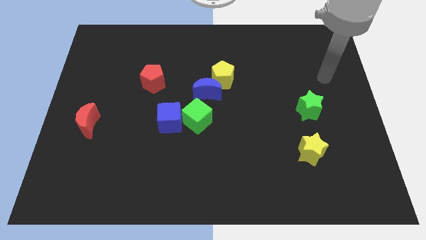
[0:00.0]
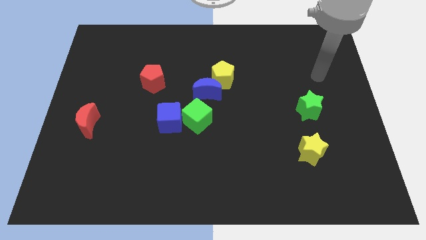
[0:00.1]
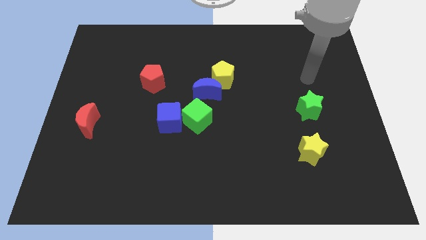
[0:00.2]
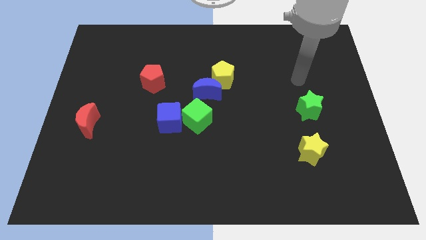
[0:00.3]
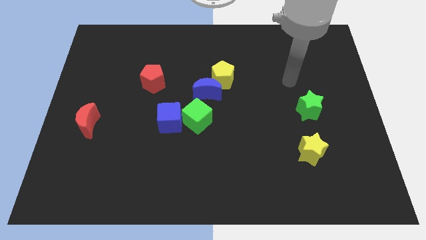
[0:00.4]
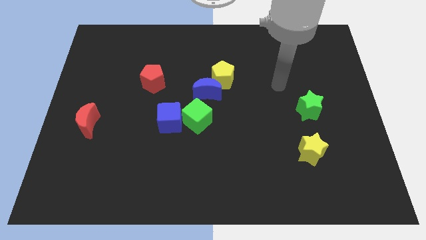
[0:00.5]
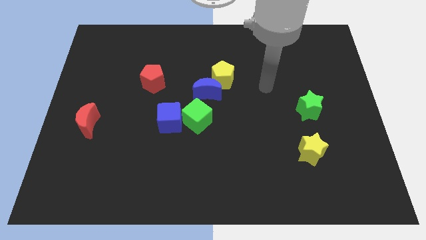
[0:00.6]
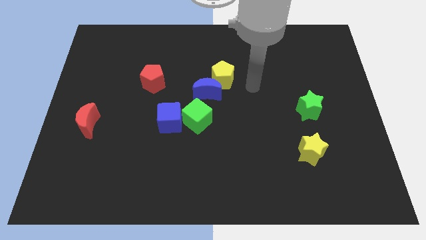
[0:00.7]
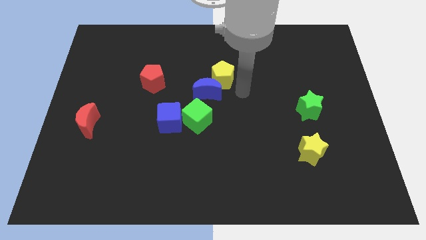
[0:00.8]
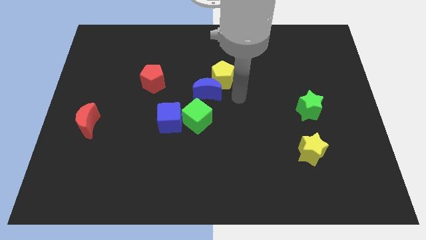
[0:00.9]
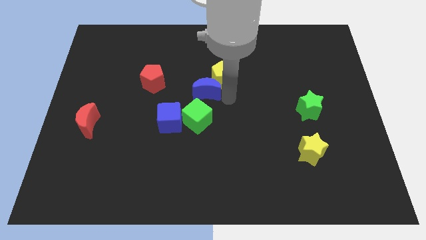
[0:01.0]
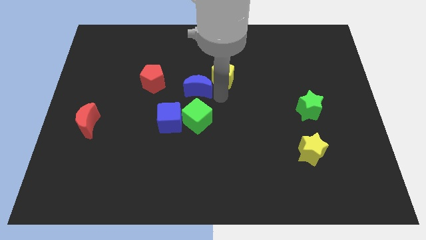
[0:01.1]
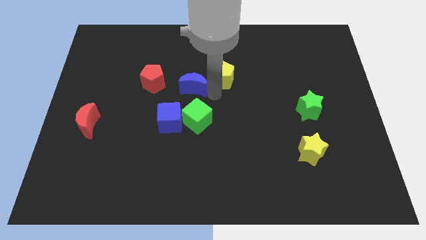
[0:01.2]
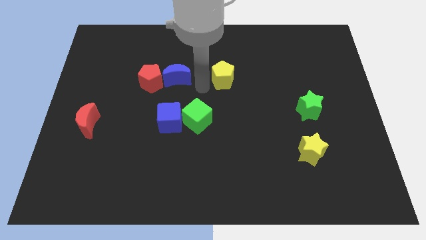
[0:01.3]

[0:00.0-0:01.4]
move the yellow pentagon away from the blue moon

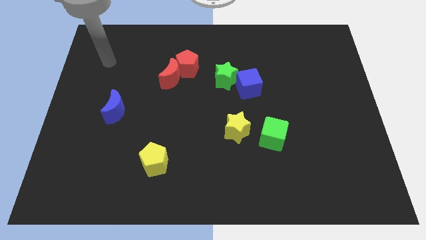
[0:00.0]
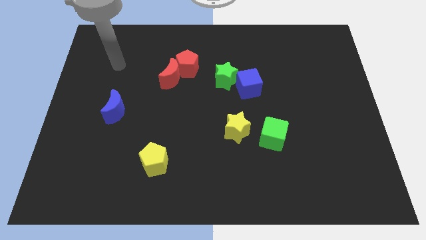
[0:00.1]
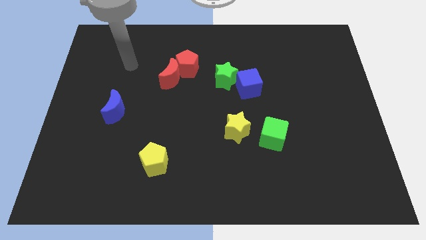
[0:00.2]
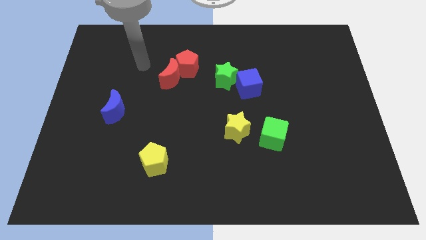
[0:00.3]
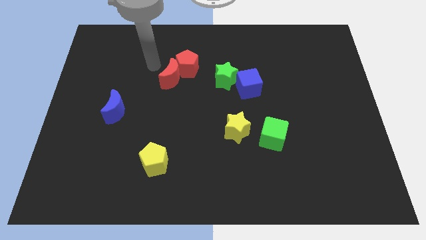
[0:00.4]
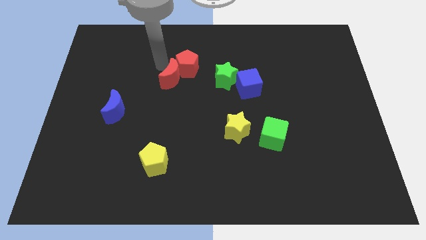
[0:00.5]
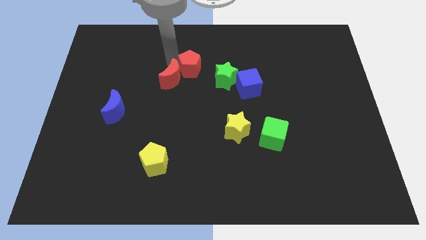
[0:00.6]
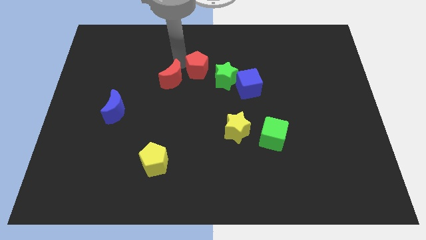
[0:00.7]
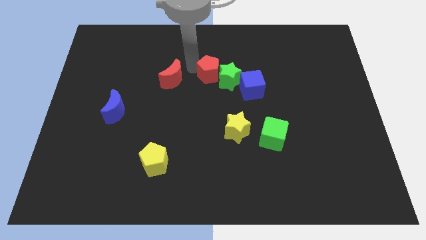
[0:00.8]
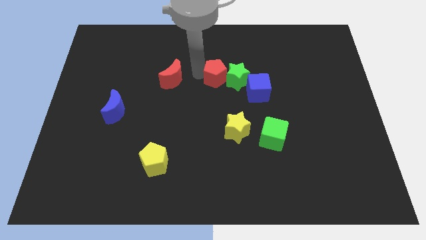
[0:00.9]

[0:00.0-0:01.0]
move the red moon away from the red pentagon

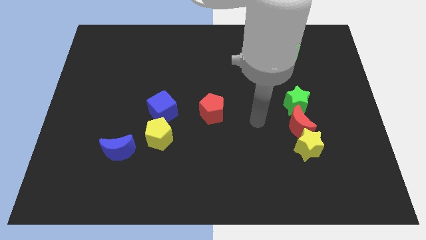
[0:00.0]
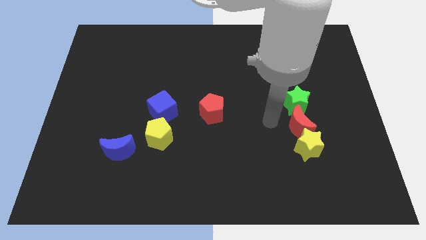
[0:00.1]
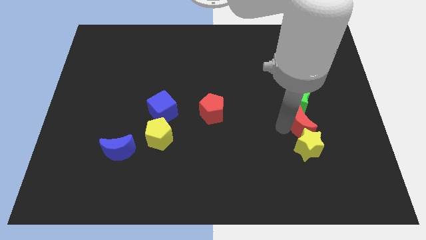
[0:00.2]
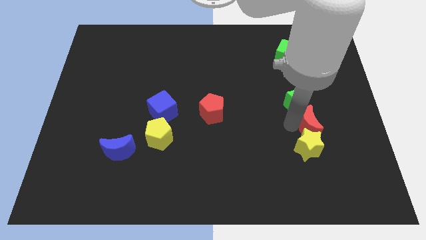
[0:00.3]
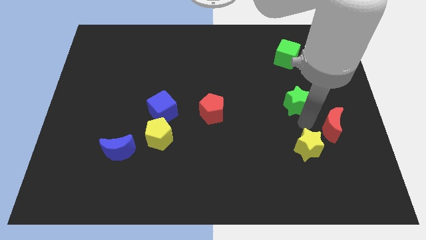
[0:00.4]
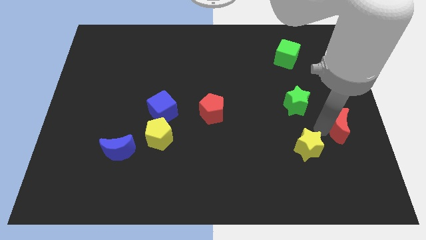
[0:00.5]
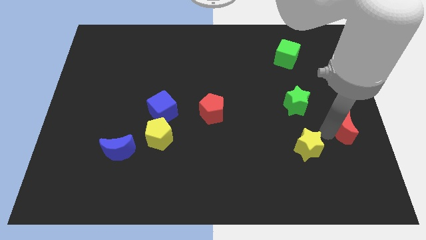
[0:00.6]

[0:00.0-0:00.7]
move the yellow star away from the red moon

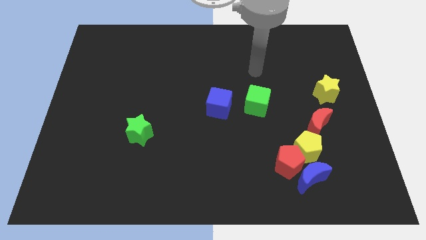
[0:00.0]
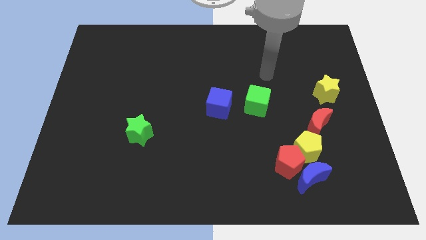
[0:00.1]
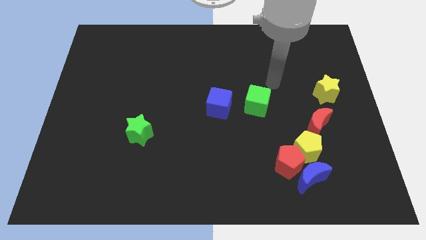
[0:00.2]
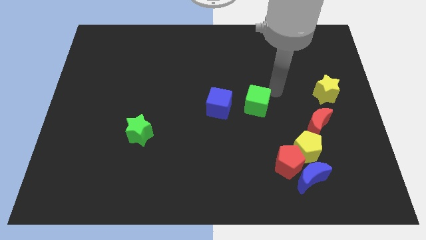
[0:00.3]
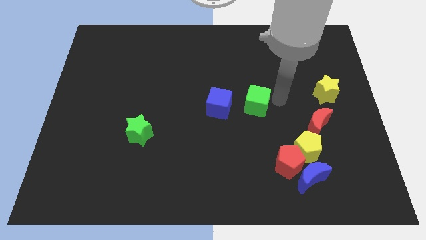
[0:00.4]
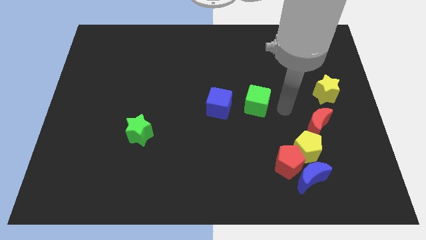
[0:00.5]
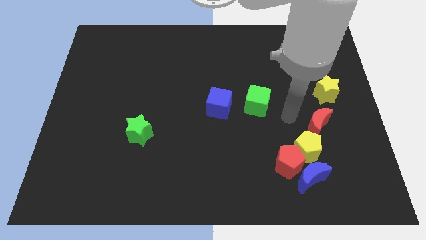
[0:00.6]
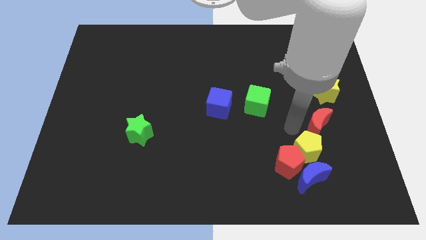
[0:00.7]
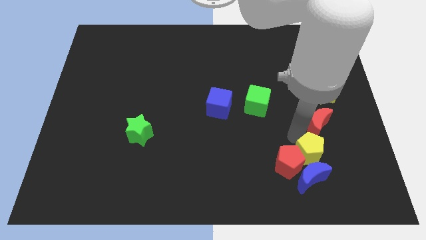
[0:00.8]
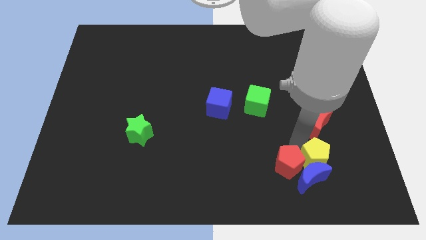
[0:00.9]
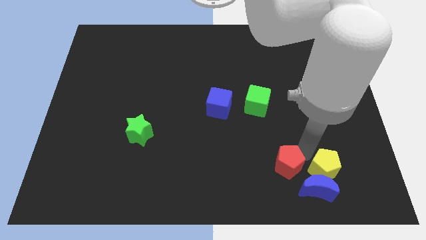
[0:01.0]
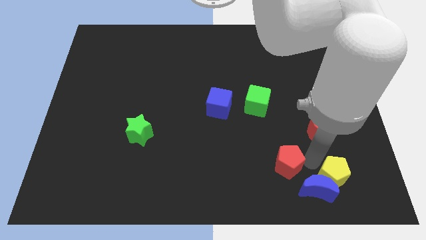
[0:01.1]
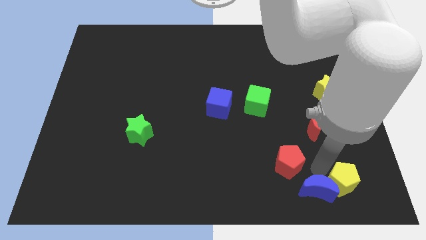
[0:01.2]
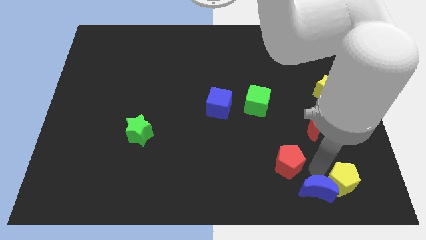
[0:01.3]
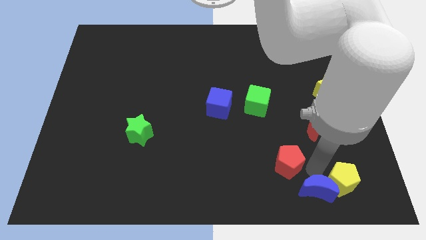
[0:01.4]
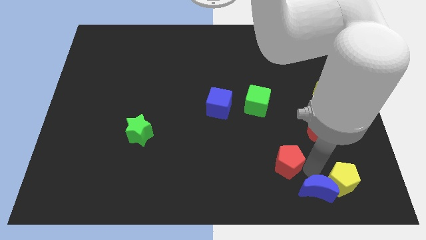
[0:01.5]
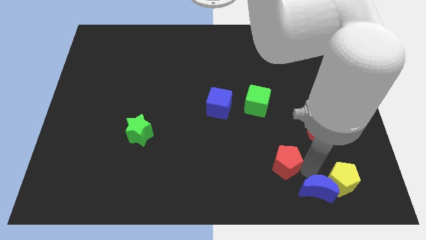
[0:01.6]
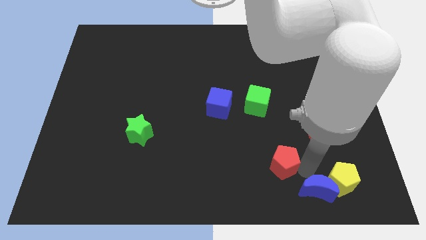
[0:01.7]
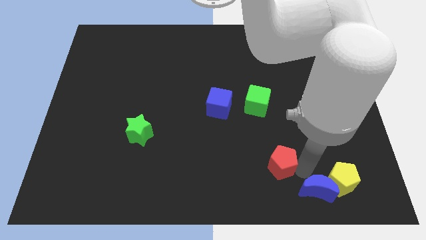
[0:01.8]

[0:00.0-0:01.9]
pull the red pentagon apart from the blue moon and yellow pentagon

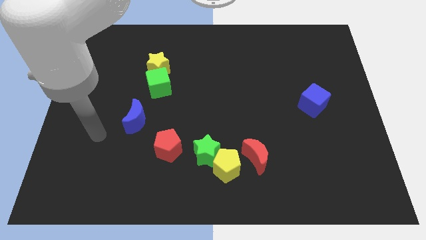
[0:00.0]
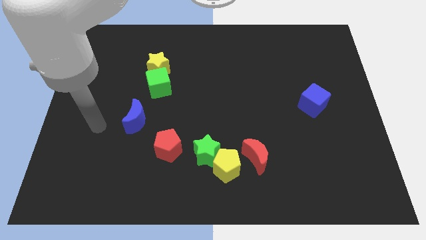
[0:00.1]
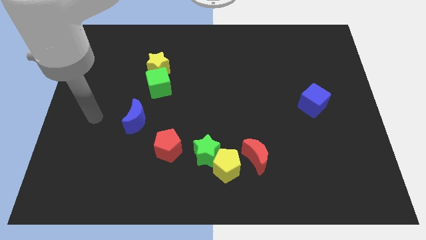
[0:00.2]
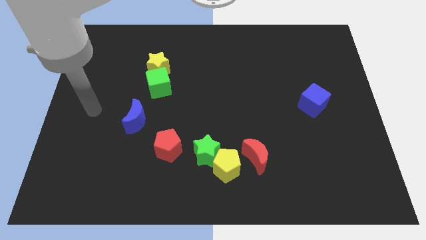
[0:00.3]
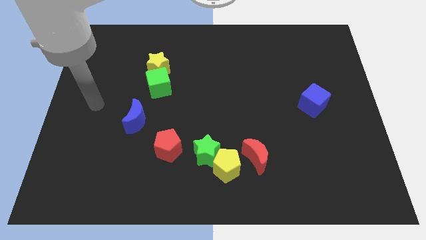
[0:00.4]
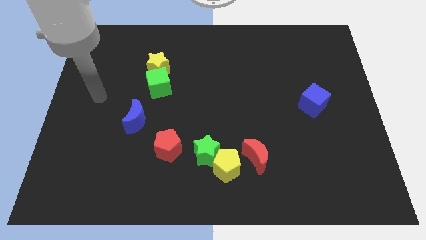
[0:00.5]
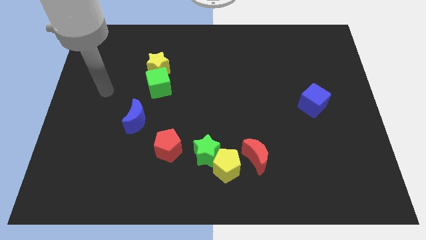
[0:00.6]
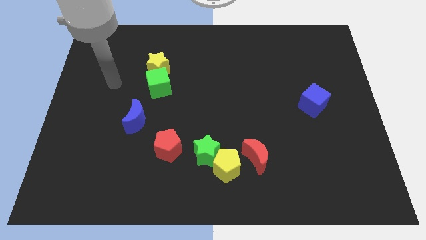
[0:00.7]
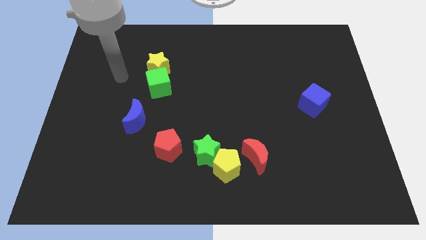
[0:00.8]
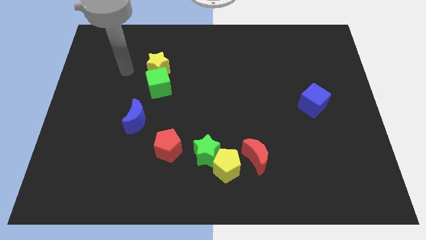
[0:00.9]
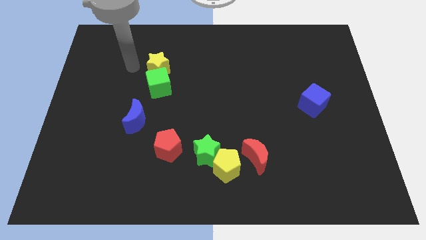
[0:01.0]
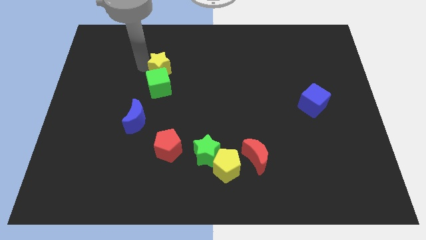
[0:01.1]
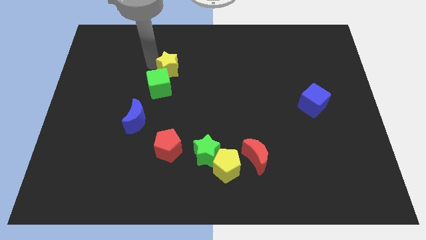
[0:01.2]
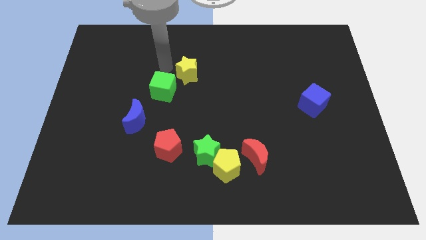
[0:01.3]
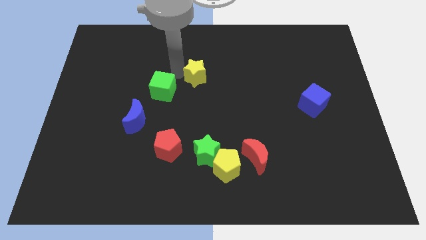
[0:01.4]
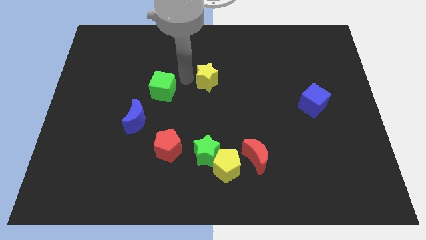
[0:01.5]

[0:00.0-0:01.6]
move the green cube away from the yellow star

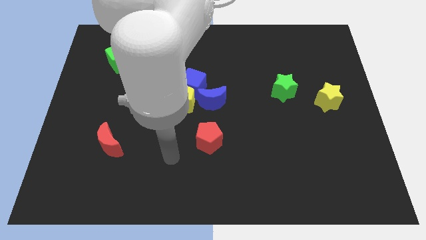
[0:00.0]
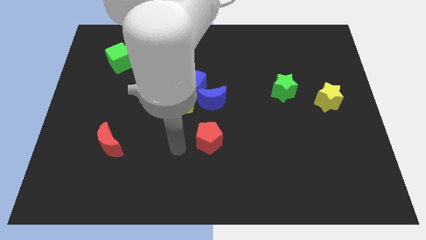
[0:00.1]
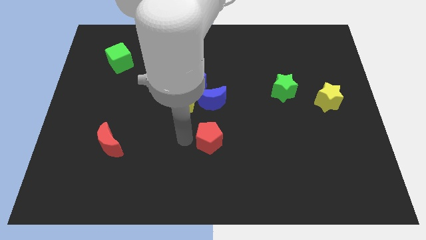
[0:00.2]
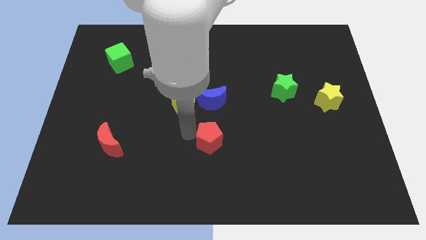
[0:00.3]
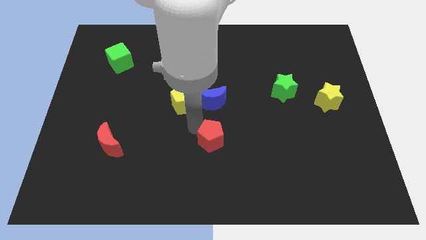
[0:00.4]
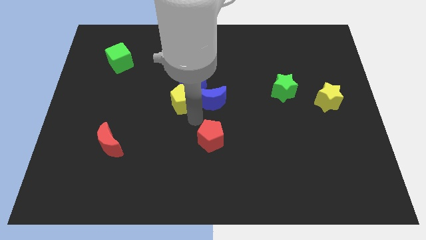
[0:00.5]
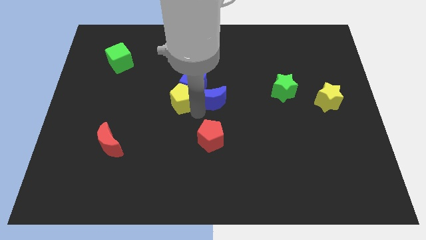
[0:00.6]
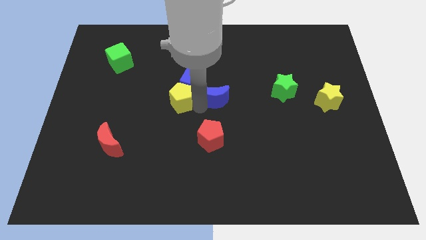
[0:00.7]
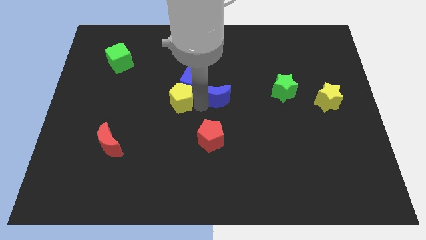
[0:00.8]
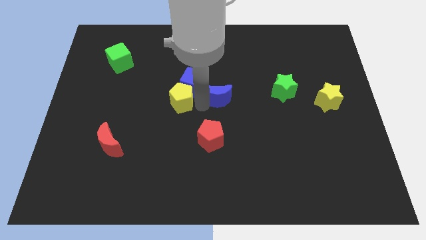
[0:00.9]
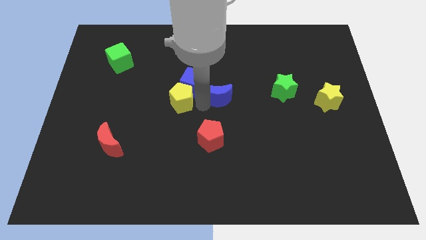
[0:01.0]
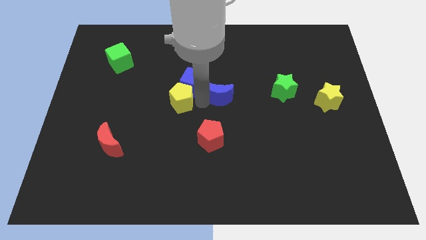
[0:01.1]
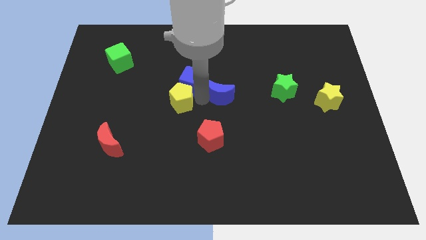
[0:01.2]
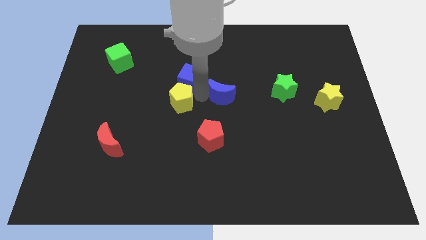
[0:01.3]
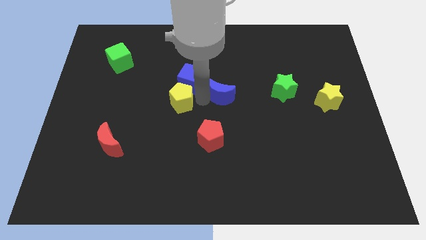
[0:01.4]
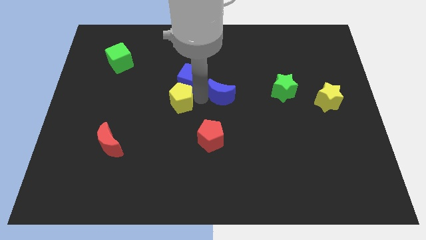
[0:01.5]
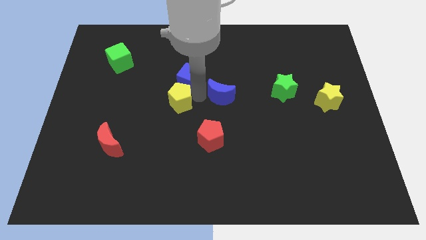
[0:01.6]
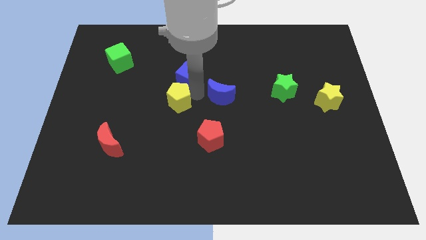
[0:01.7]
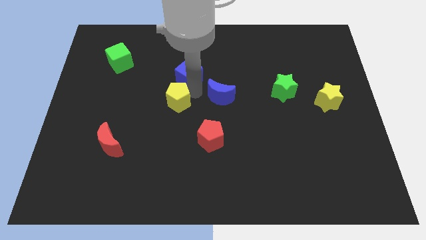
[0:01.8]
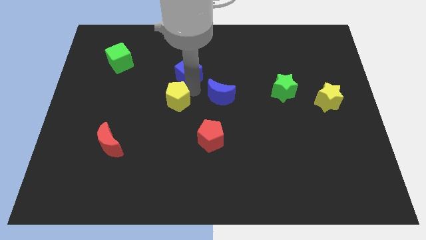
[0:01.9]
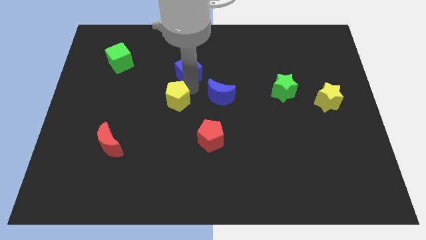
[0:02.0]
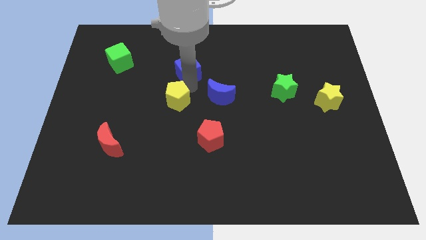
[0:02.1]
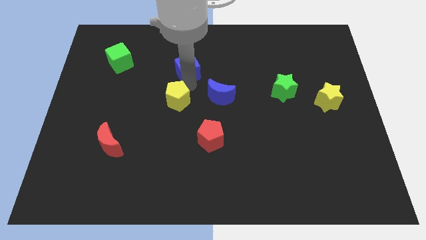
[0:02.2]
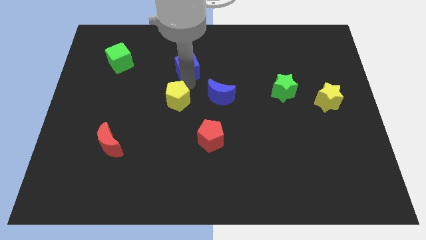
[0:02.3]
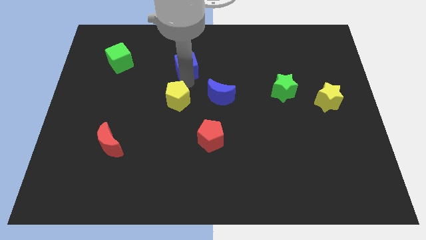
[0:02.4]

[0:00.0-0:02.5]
move the blue cube away from the yellow pentagon and blue moon

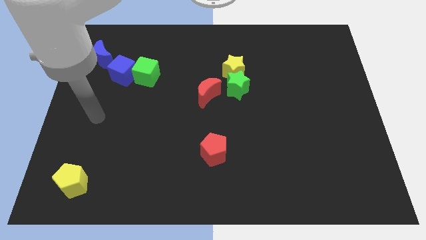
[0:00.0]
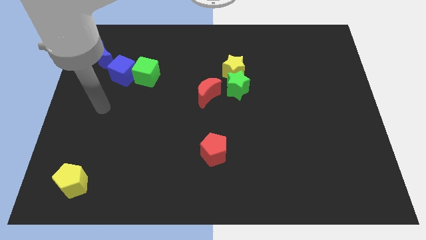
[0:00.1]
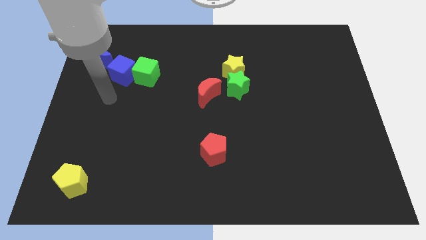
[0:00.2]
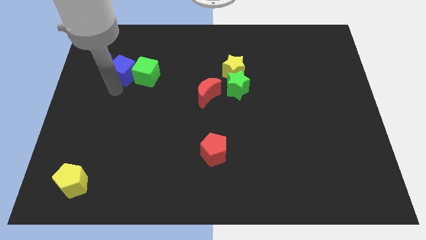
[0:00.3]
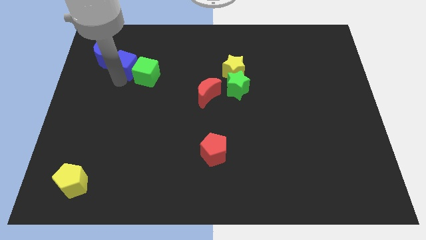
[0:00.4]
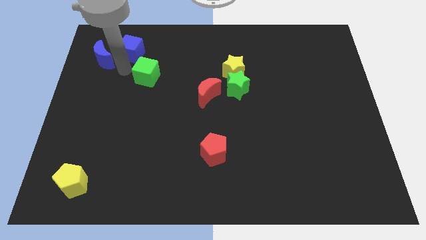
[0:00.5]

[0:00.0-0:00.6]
move the green cube away from the blue cube
